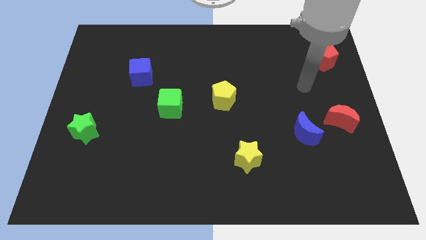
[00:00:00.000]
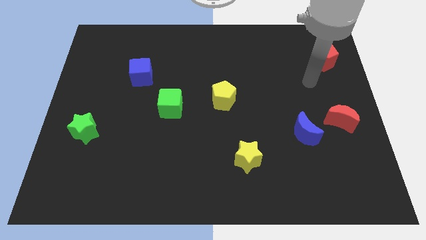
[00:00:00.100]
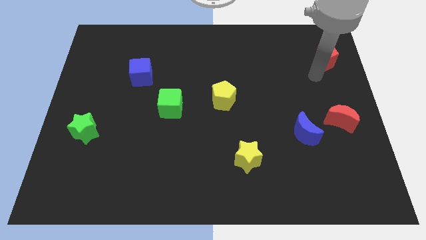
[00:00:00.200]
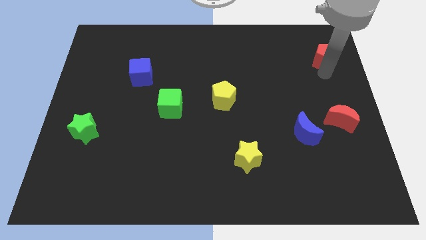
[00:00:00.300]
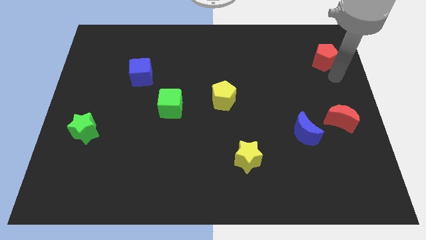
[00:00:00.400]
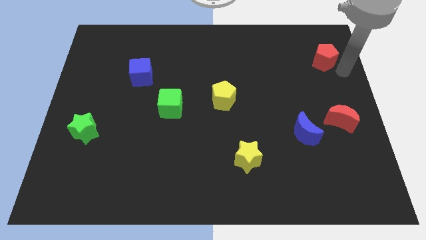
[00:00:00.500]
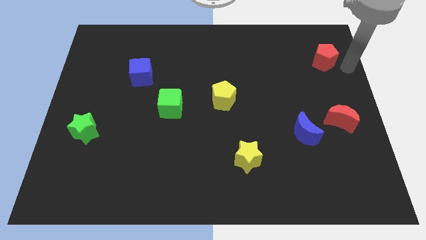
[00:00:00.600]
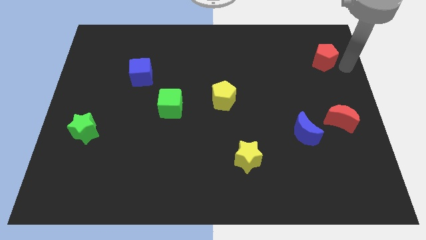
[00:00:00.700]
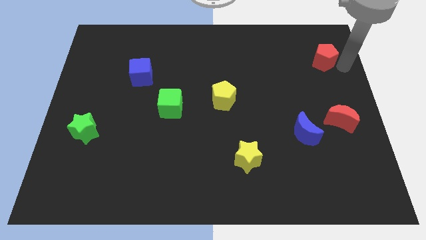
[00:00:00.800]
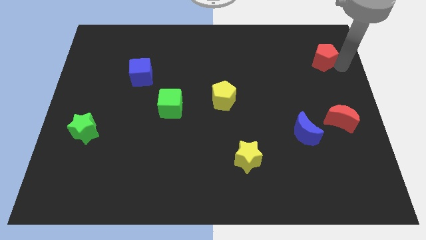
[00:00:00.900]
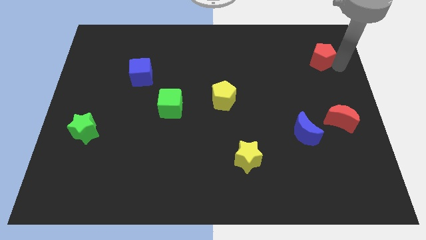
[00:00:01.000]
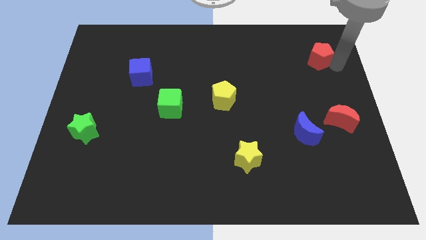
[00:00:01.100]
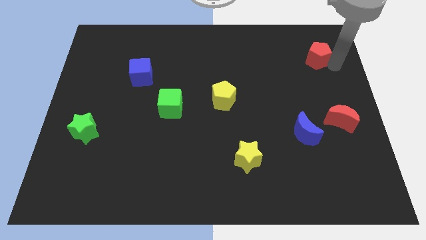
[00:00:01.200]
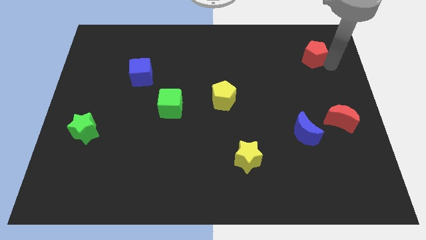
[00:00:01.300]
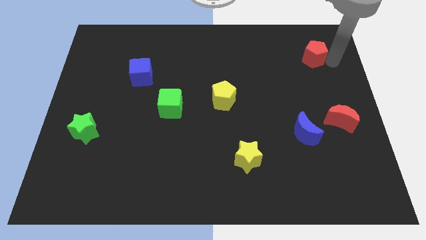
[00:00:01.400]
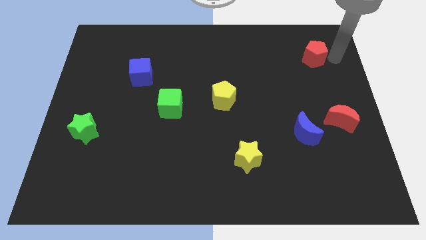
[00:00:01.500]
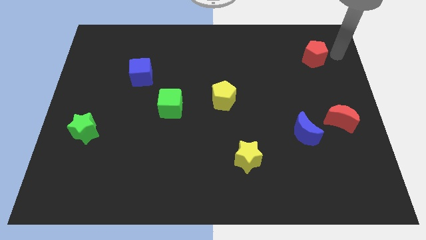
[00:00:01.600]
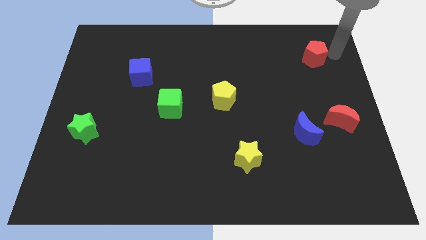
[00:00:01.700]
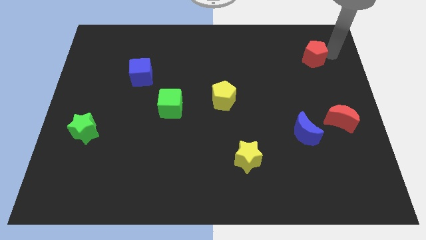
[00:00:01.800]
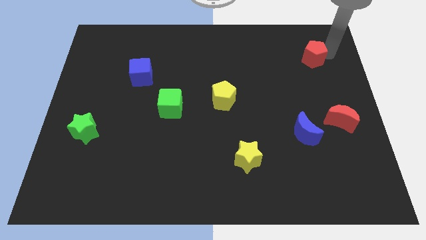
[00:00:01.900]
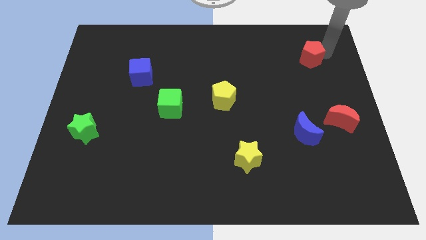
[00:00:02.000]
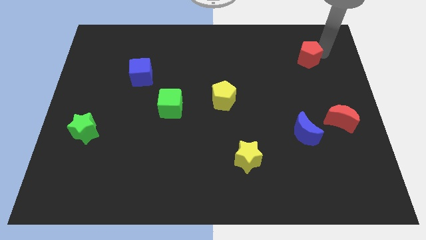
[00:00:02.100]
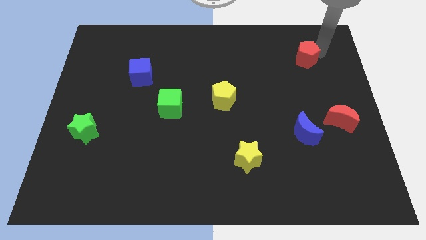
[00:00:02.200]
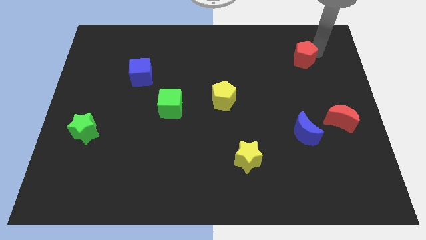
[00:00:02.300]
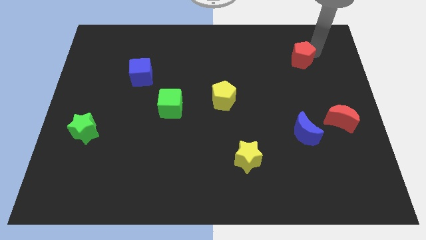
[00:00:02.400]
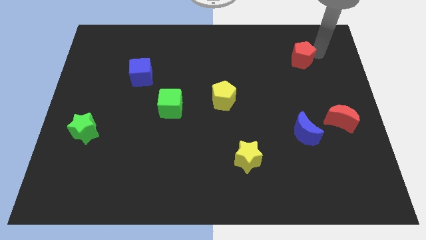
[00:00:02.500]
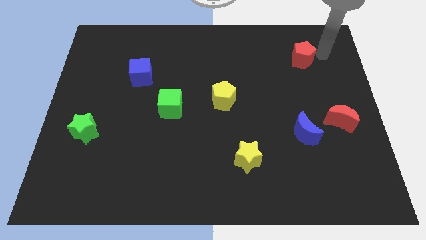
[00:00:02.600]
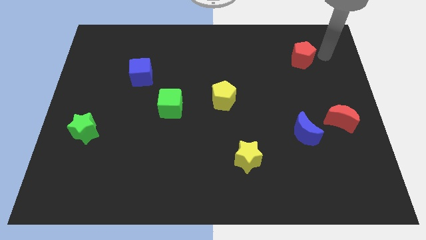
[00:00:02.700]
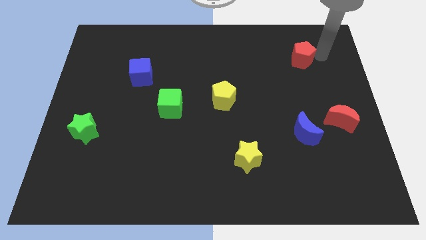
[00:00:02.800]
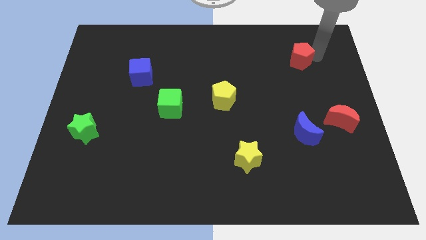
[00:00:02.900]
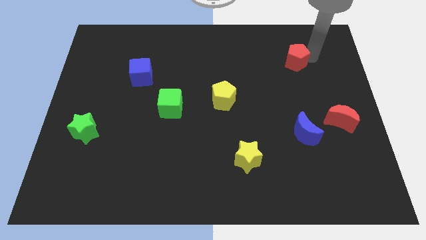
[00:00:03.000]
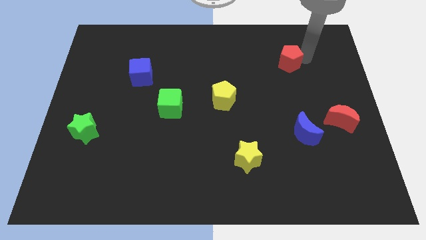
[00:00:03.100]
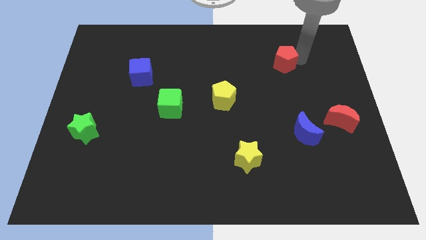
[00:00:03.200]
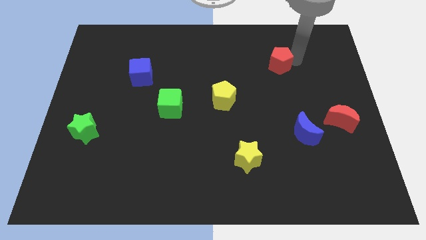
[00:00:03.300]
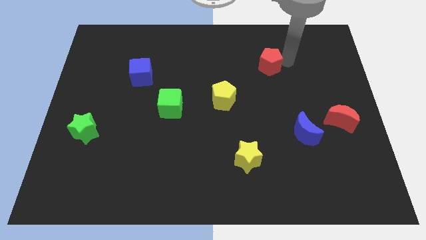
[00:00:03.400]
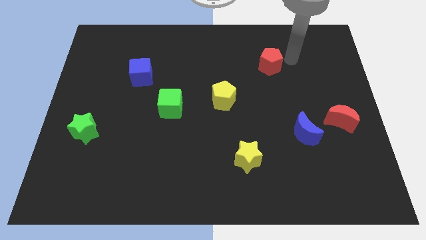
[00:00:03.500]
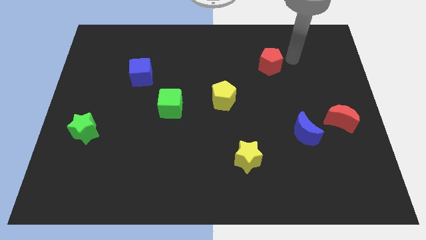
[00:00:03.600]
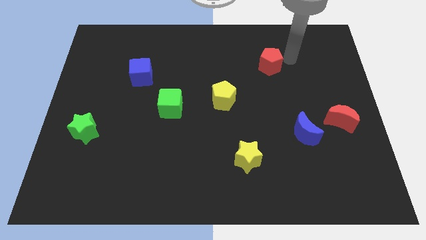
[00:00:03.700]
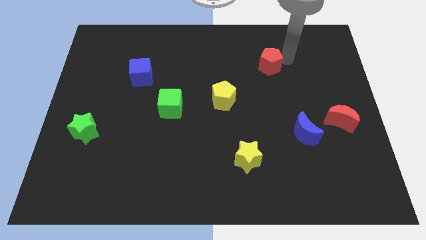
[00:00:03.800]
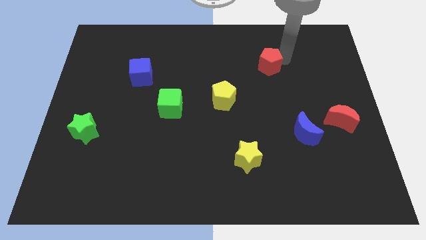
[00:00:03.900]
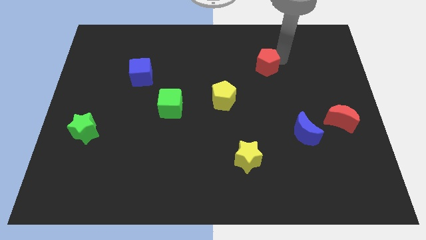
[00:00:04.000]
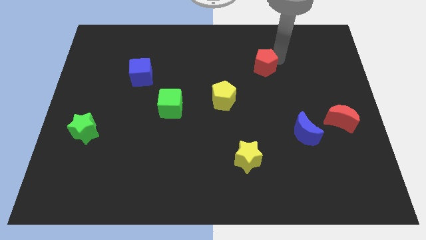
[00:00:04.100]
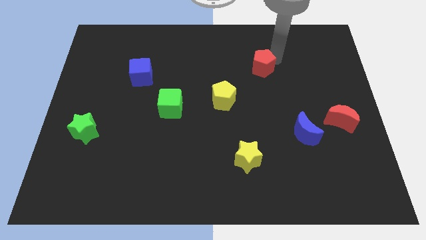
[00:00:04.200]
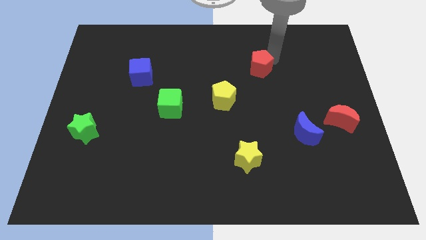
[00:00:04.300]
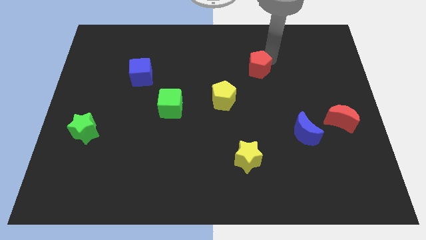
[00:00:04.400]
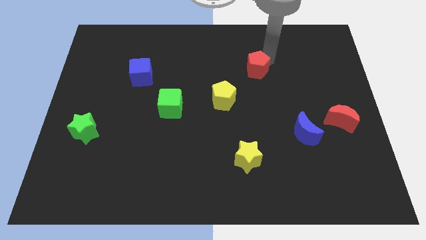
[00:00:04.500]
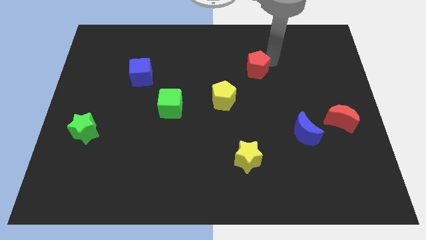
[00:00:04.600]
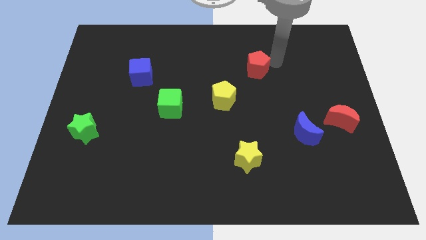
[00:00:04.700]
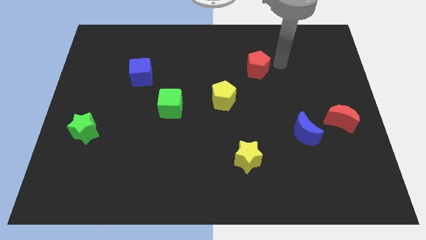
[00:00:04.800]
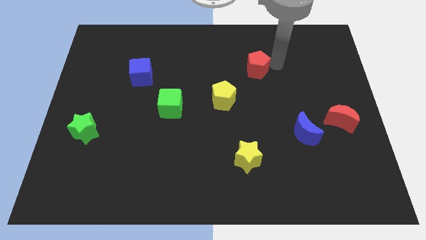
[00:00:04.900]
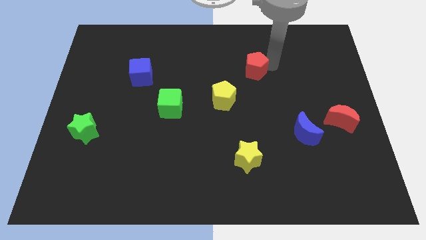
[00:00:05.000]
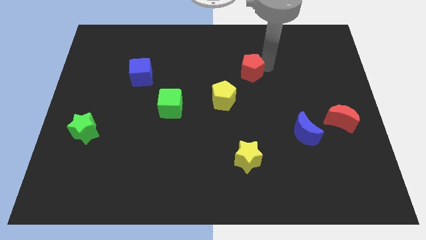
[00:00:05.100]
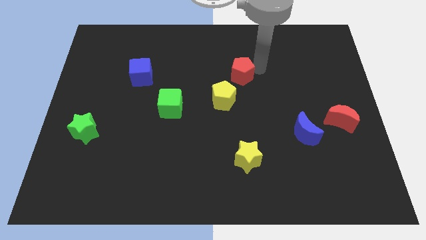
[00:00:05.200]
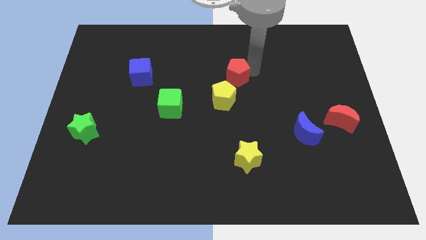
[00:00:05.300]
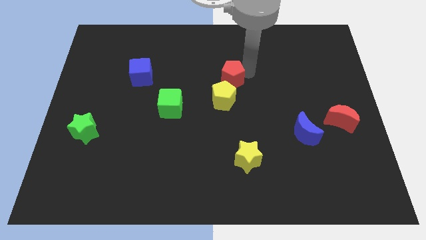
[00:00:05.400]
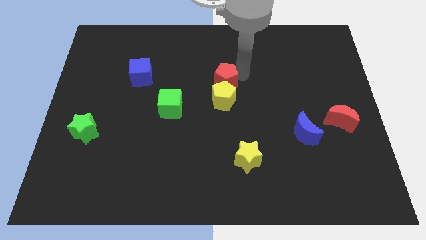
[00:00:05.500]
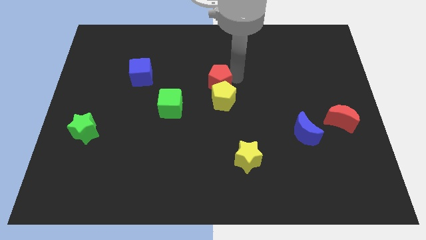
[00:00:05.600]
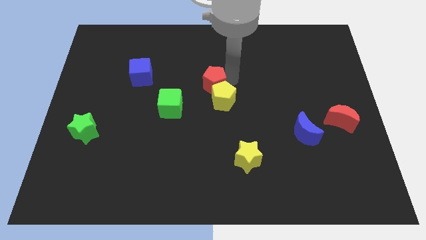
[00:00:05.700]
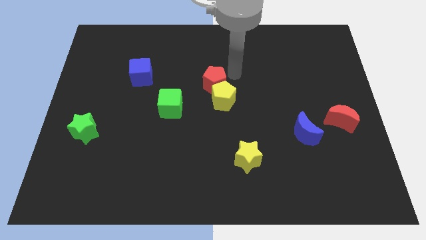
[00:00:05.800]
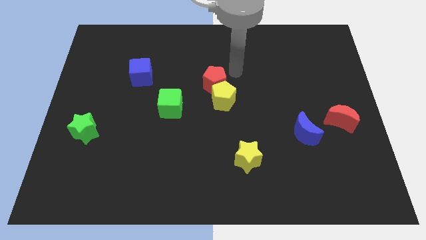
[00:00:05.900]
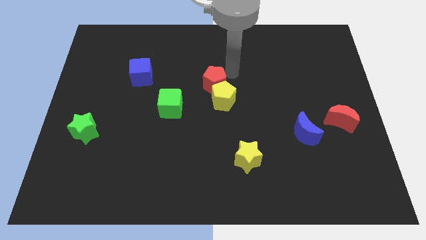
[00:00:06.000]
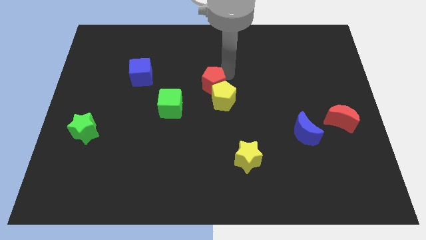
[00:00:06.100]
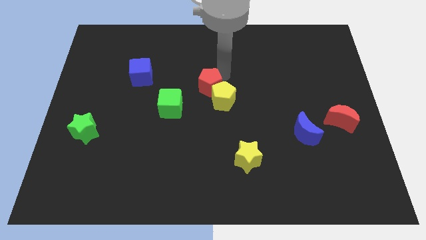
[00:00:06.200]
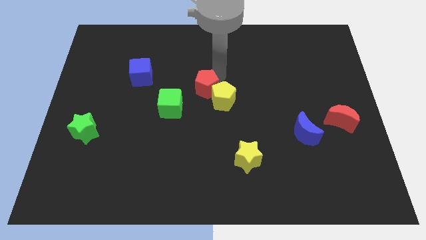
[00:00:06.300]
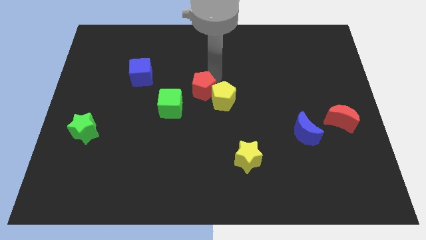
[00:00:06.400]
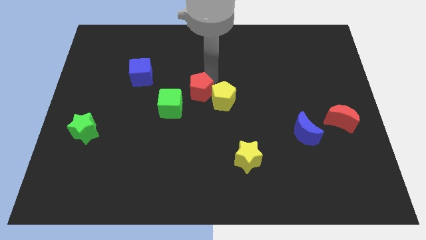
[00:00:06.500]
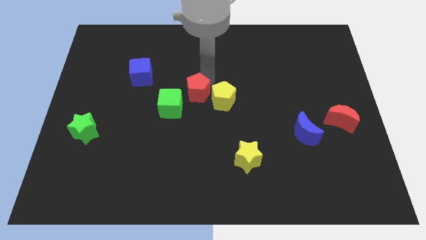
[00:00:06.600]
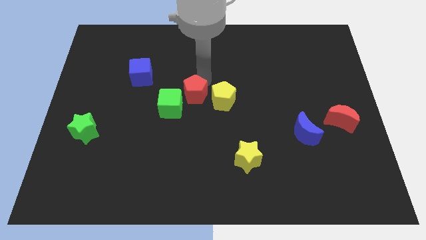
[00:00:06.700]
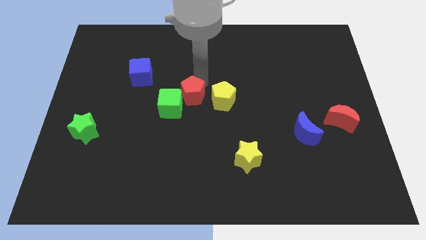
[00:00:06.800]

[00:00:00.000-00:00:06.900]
slide the red pentagon towards the green cube

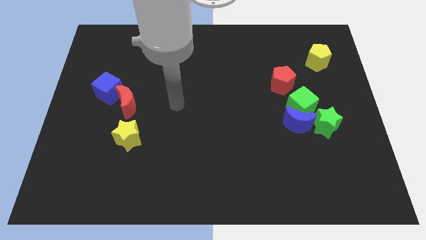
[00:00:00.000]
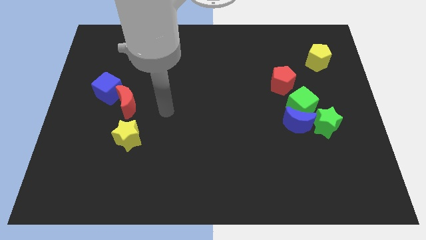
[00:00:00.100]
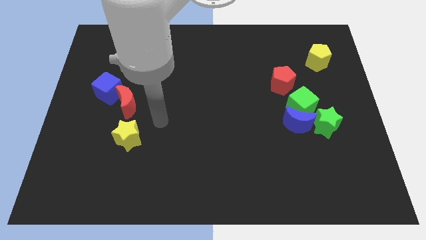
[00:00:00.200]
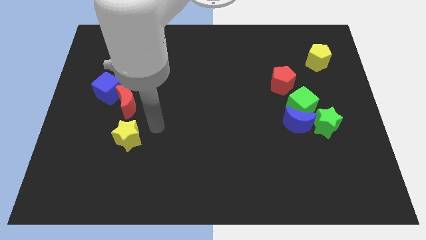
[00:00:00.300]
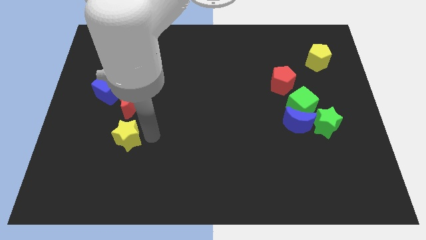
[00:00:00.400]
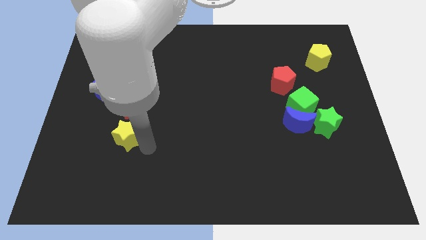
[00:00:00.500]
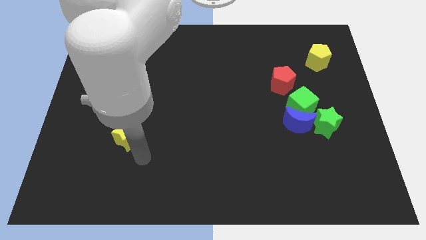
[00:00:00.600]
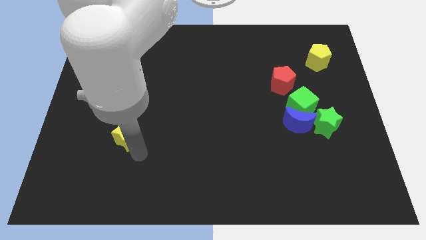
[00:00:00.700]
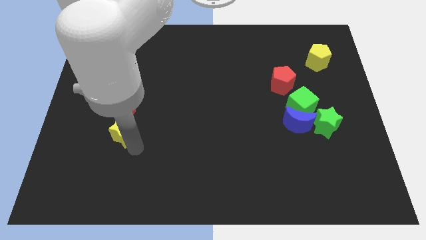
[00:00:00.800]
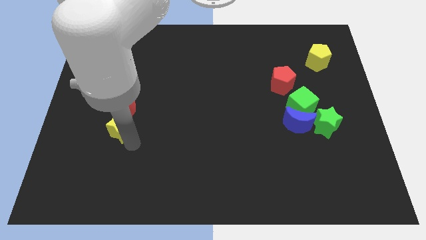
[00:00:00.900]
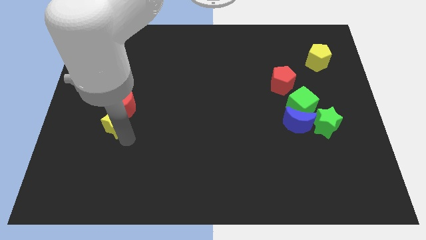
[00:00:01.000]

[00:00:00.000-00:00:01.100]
move the yellow star next to the red moon
